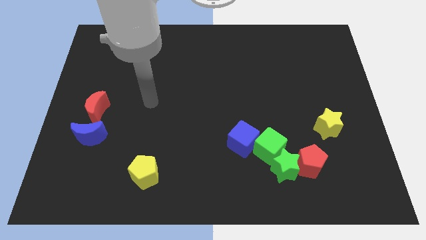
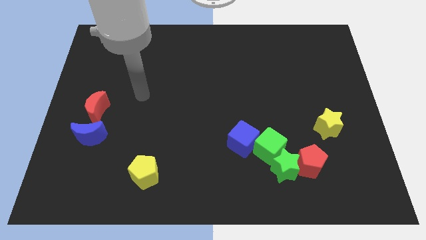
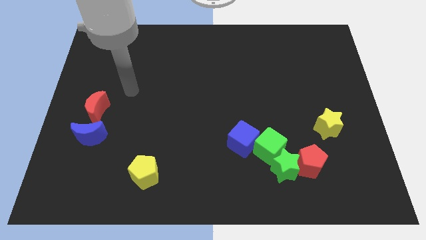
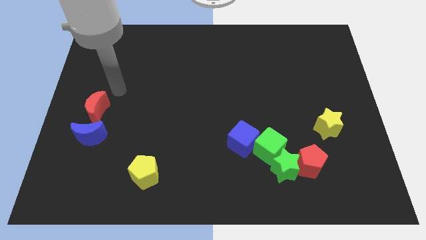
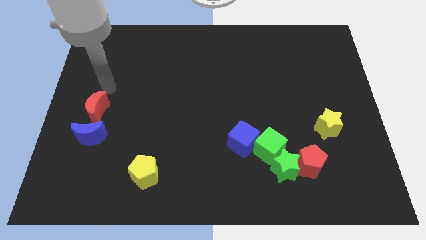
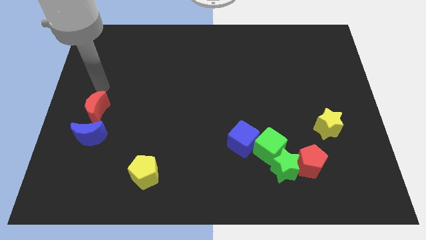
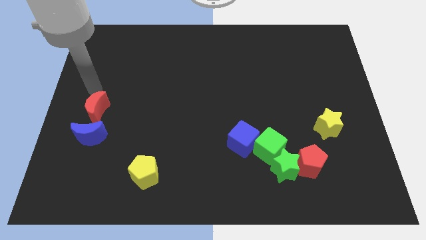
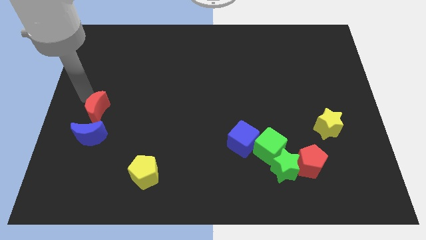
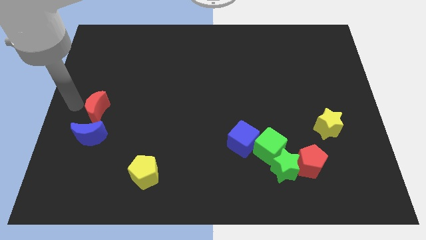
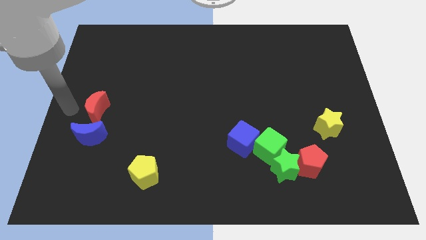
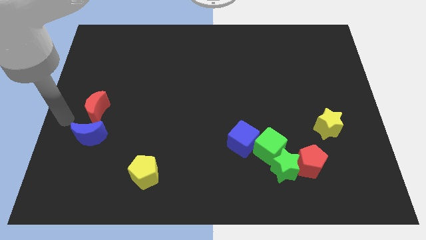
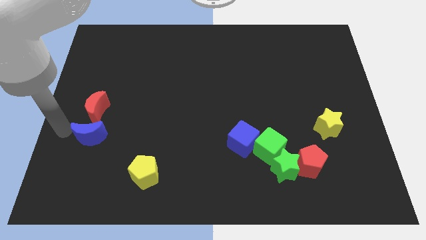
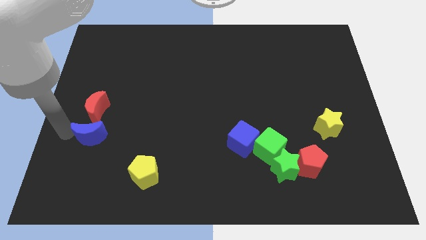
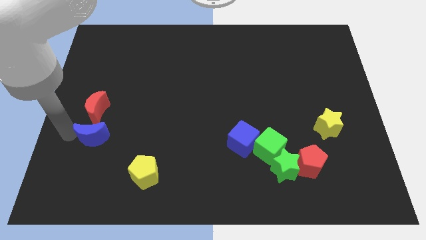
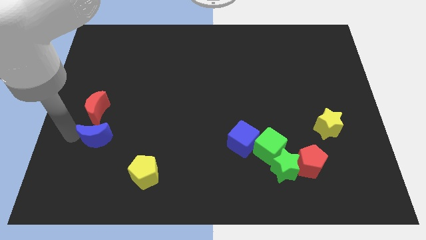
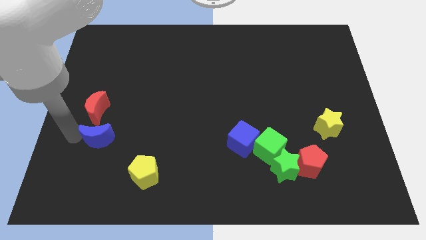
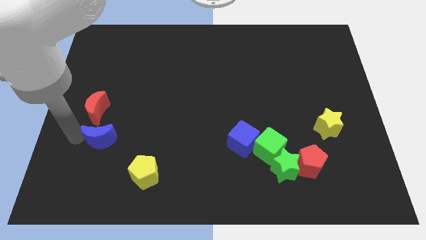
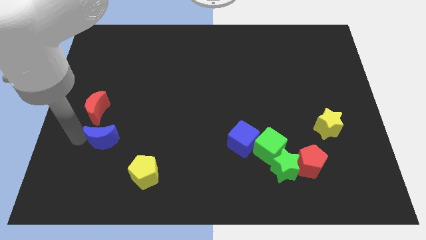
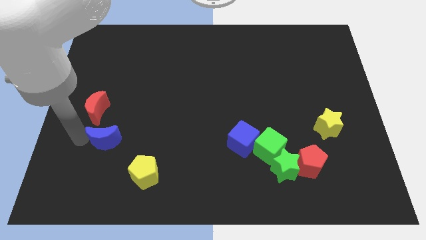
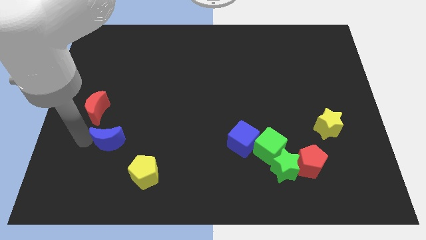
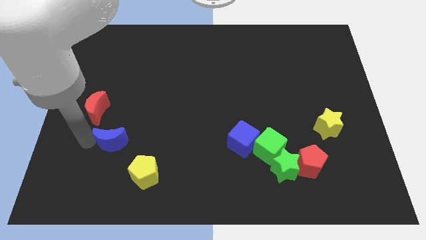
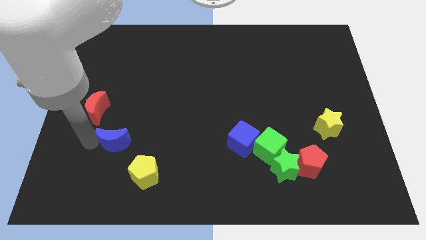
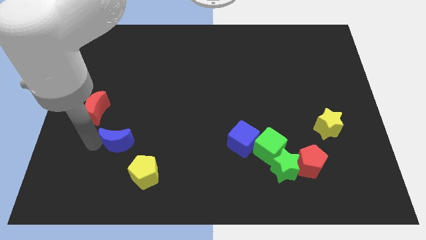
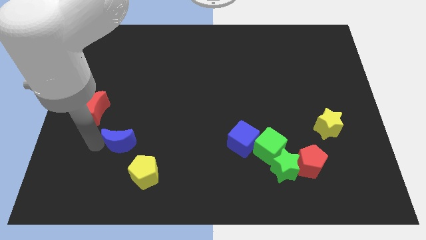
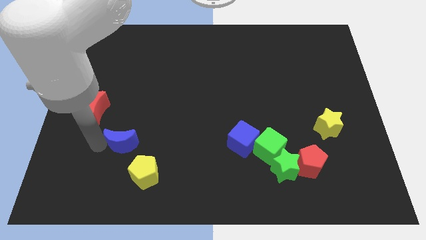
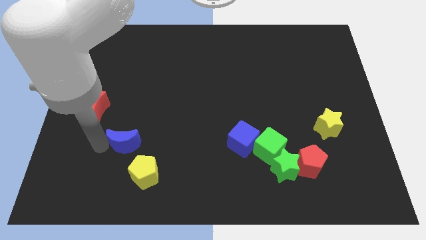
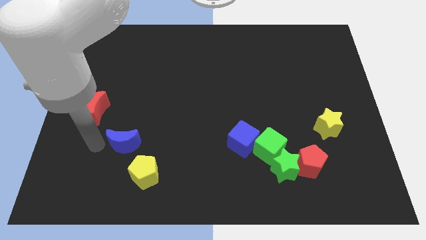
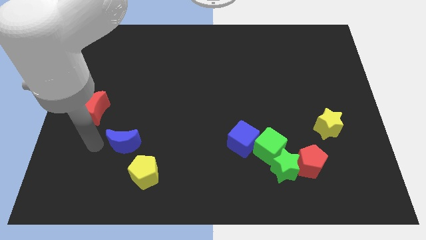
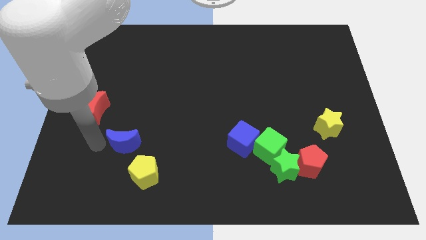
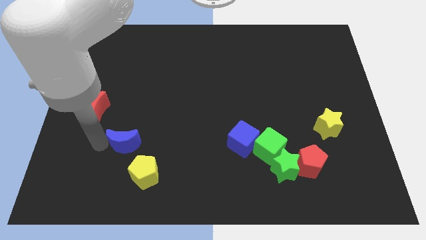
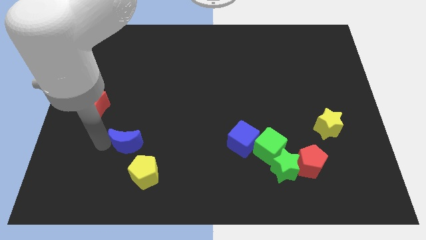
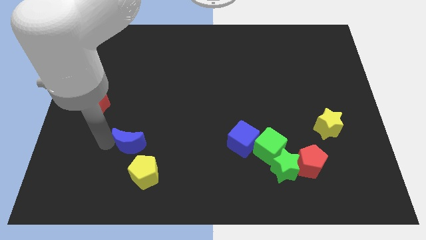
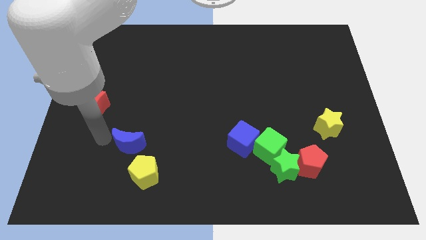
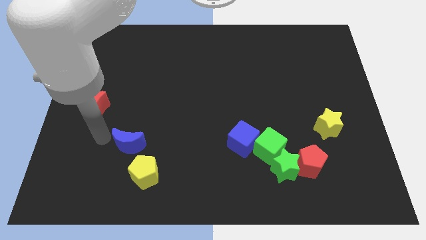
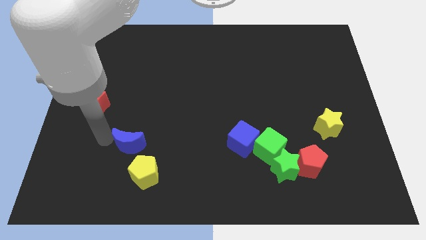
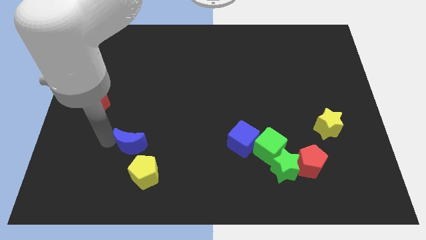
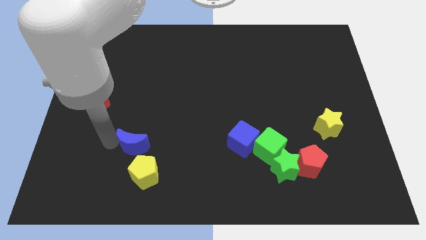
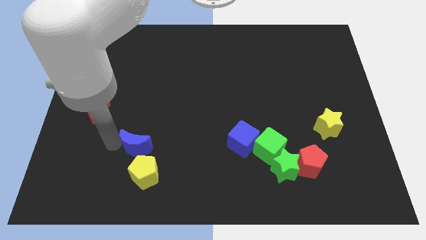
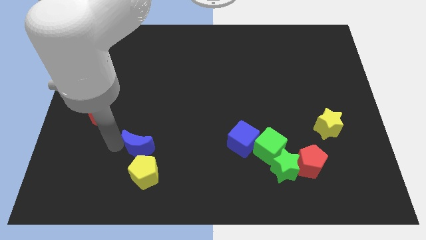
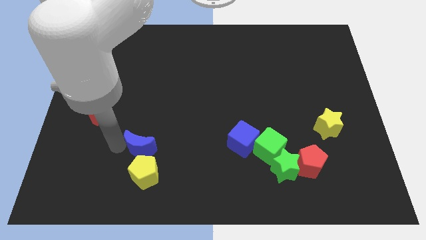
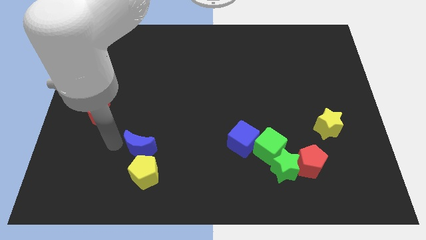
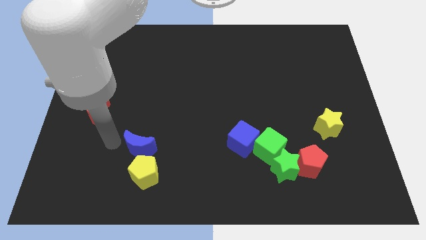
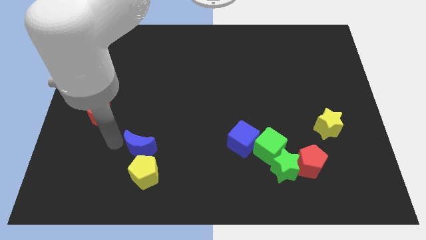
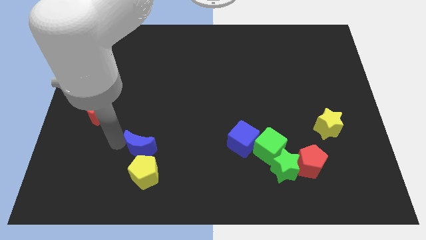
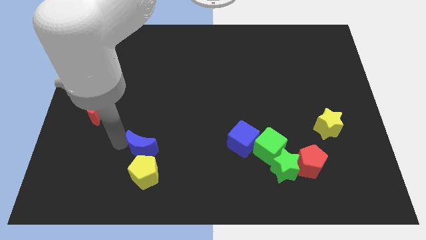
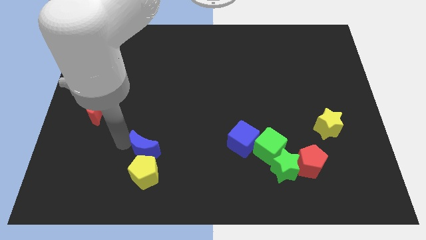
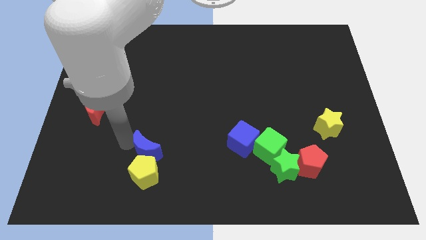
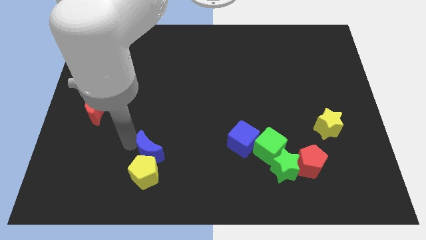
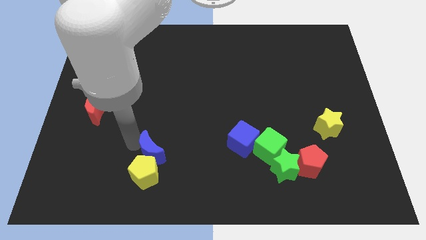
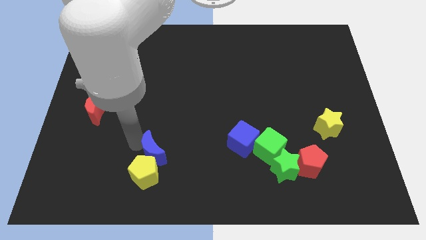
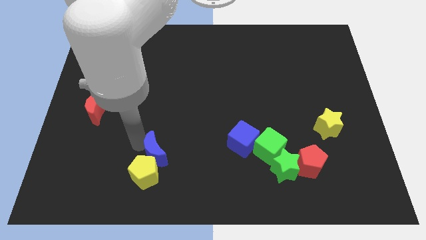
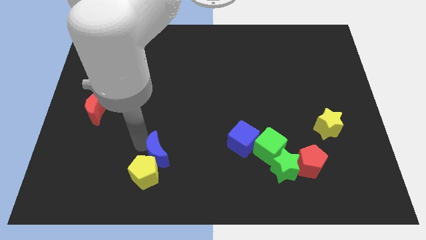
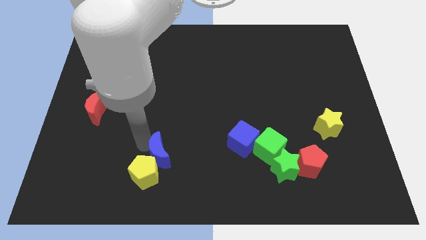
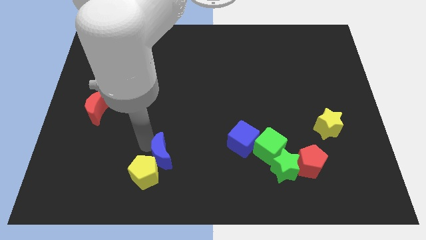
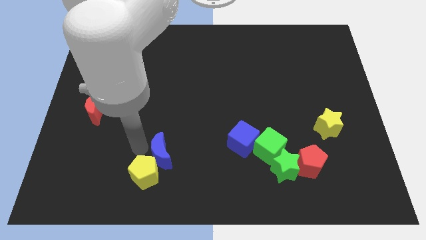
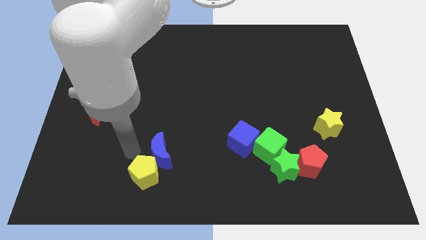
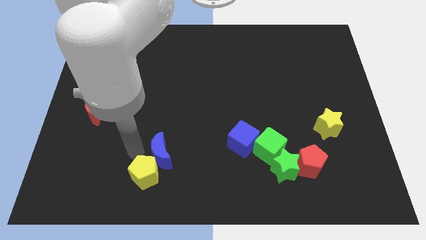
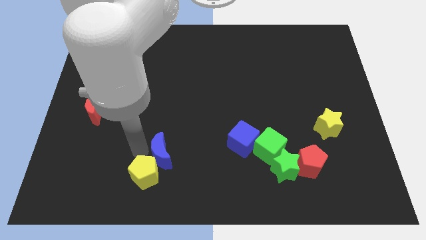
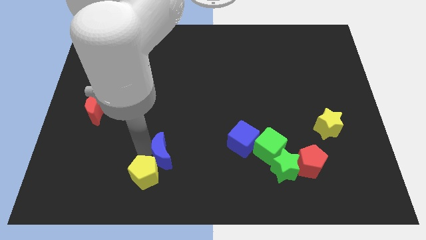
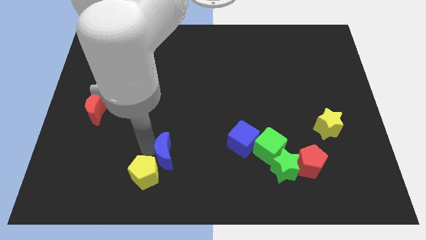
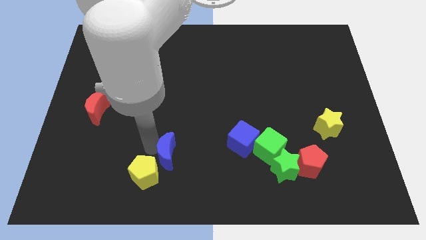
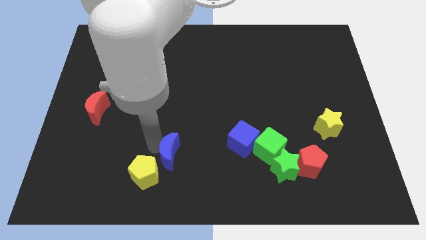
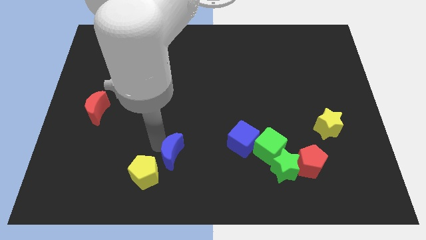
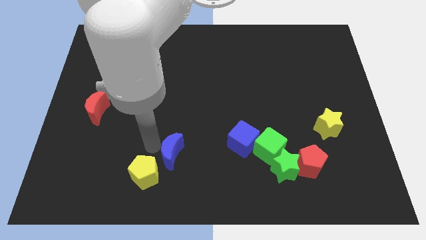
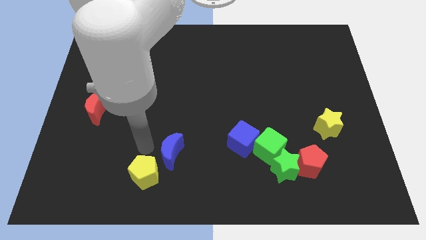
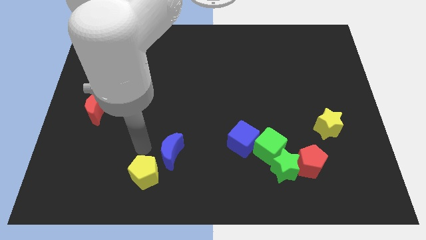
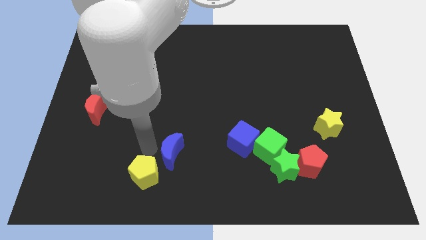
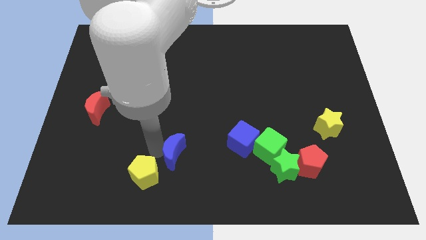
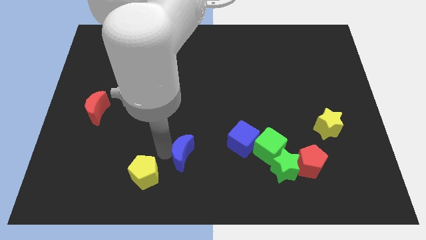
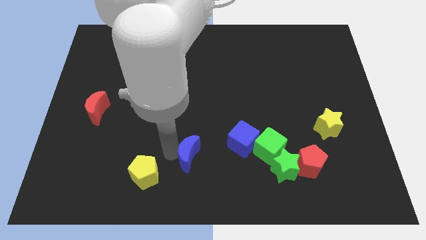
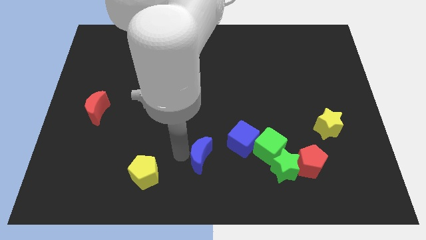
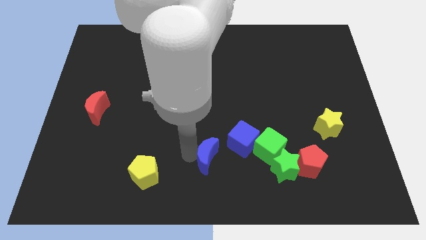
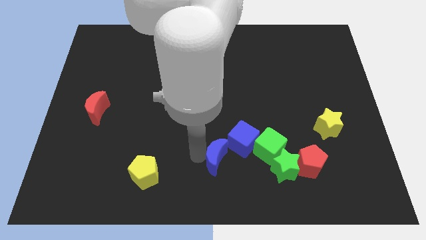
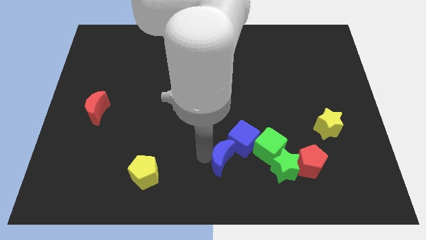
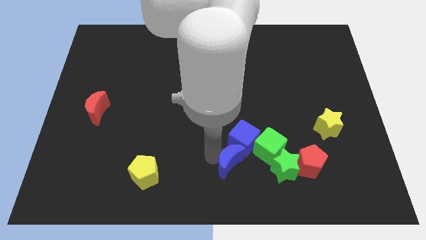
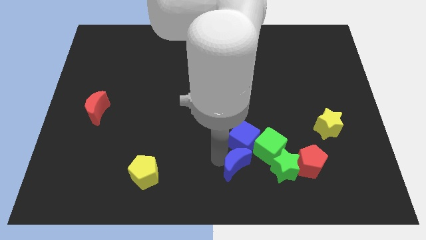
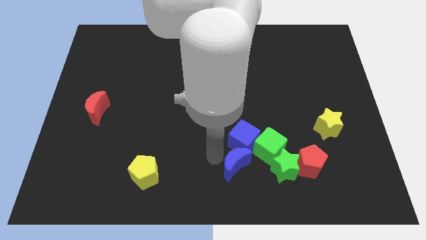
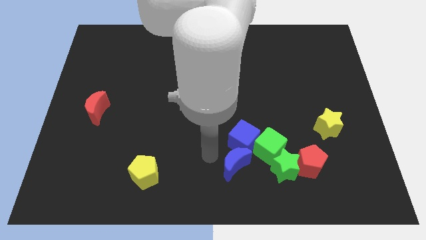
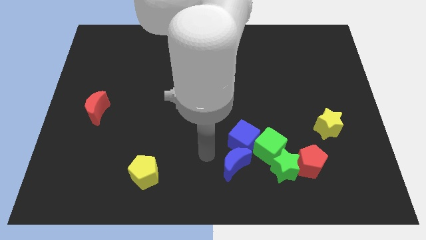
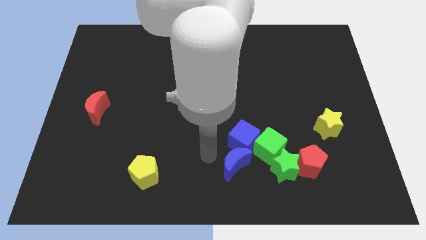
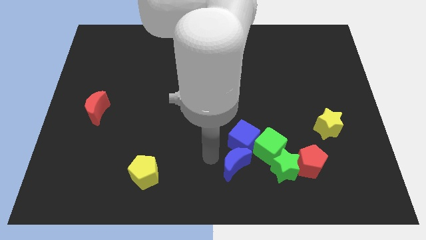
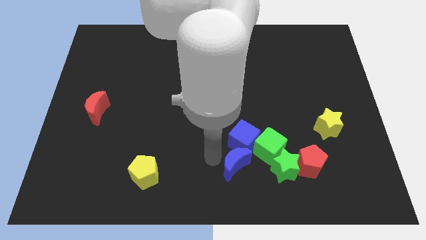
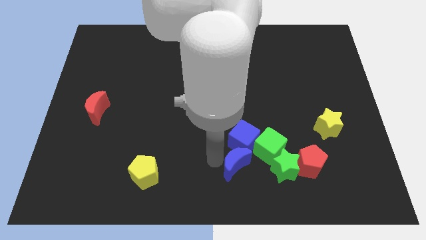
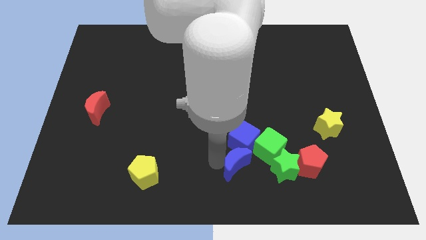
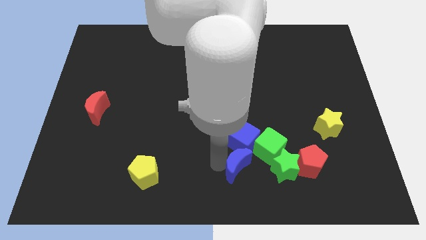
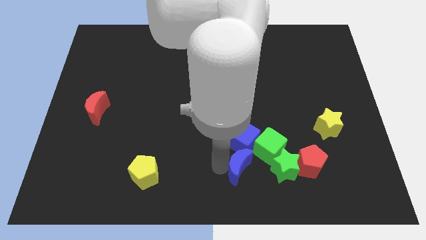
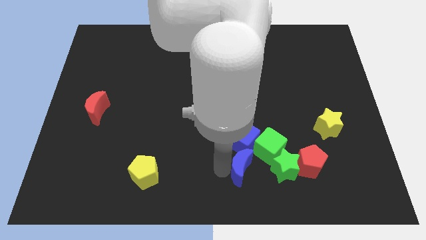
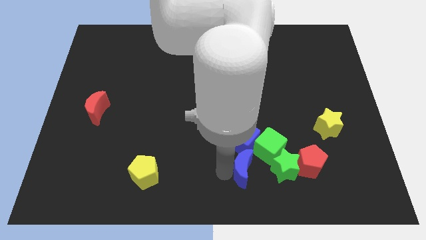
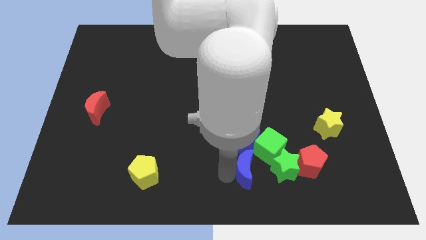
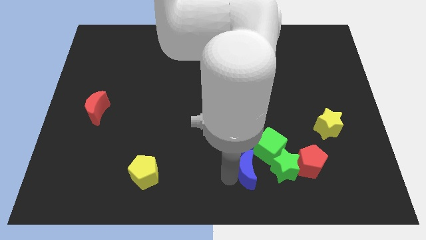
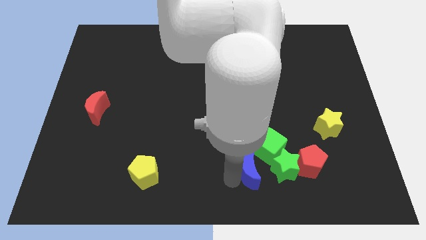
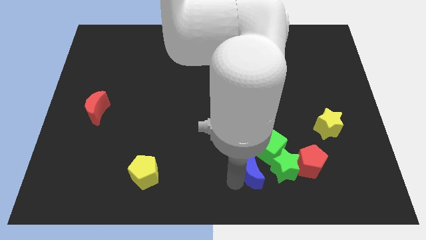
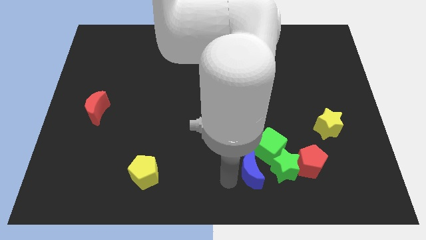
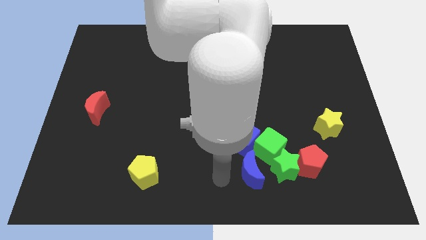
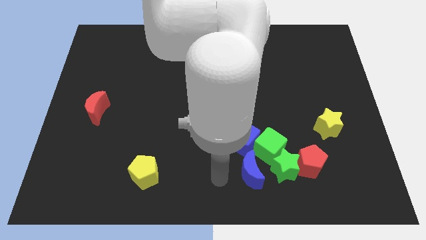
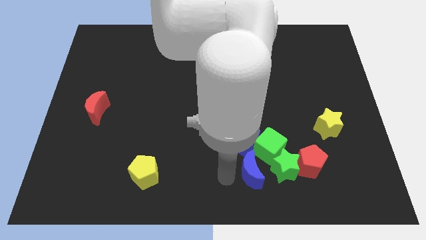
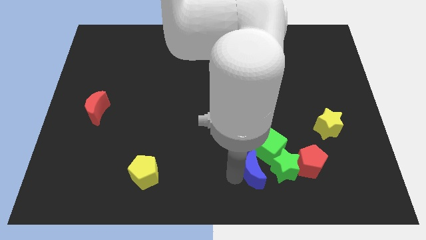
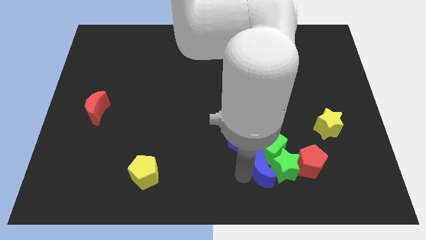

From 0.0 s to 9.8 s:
move the blue moon next to the green star
